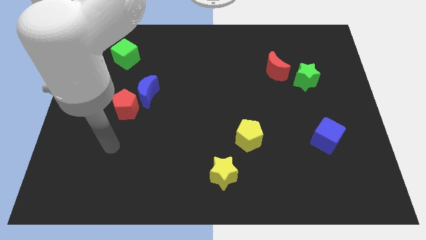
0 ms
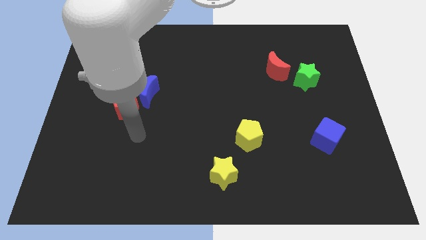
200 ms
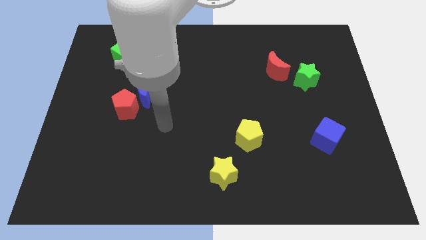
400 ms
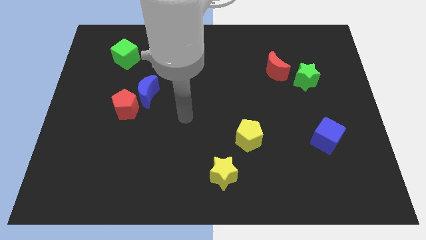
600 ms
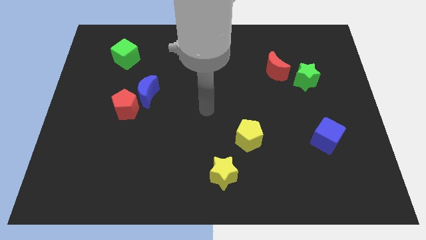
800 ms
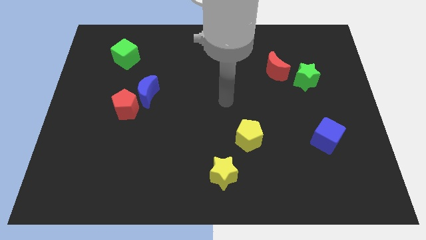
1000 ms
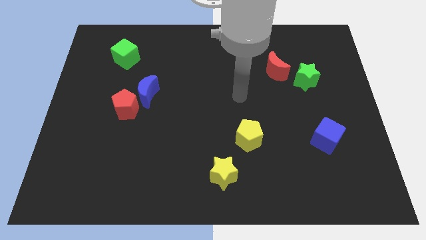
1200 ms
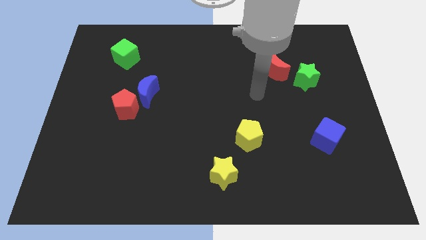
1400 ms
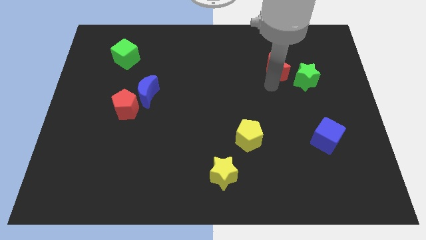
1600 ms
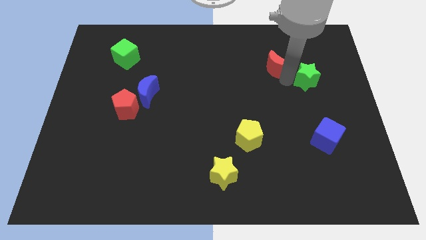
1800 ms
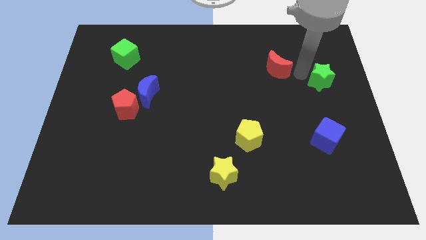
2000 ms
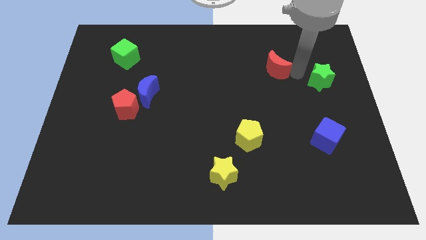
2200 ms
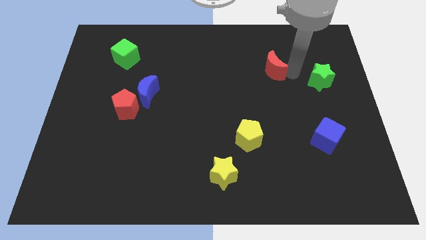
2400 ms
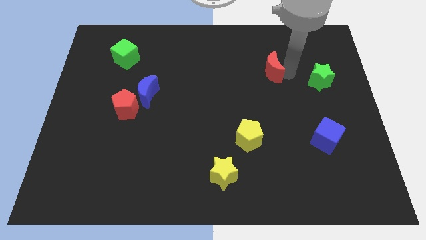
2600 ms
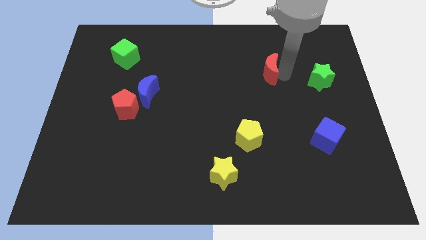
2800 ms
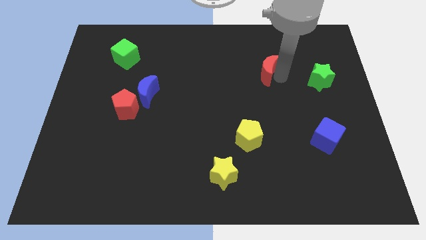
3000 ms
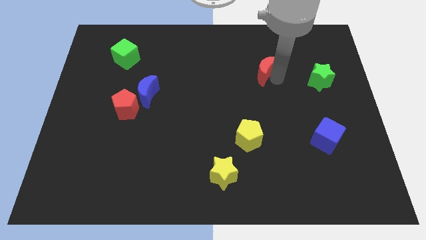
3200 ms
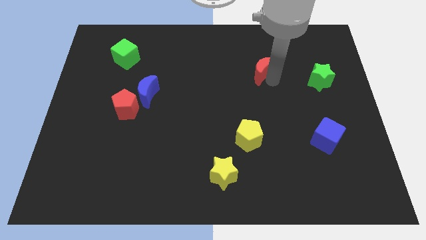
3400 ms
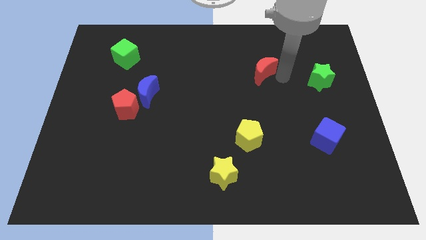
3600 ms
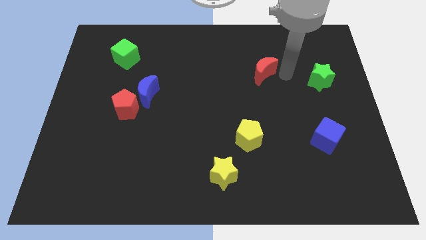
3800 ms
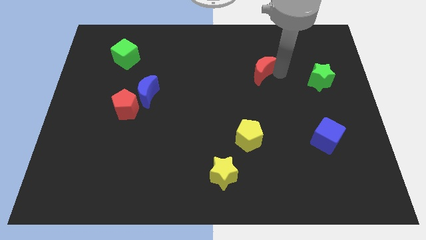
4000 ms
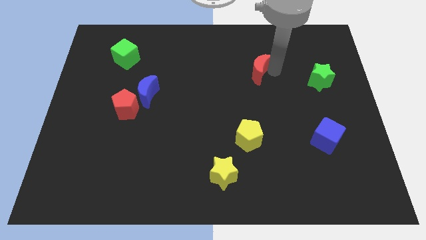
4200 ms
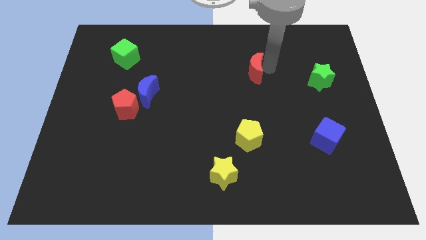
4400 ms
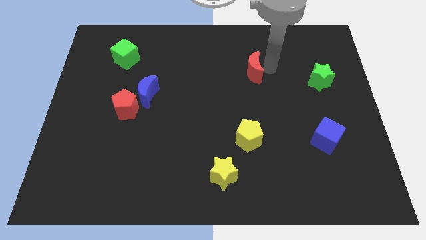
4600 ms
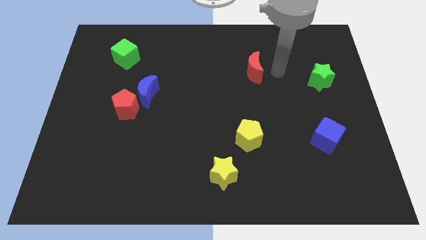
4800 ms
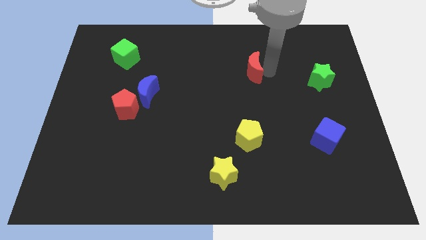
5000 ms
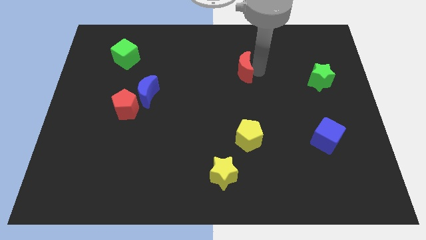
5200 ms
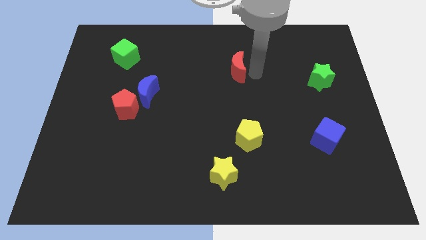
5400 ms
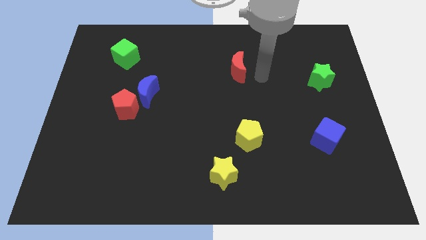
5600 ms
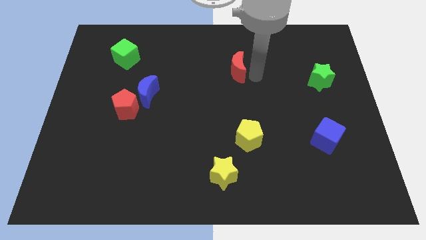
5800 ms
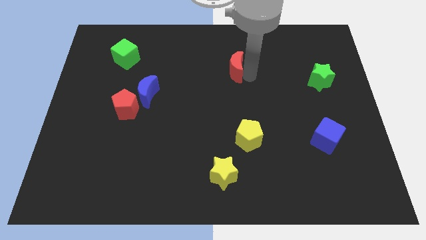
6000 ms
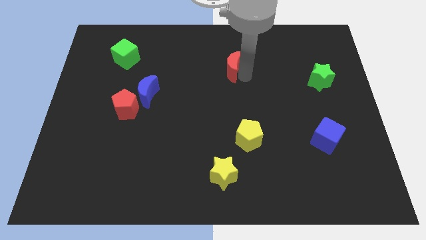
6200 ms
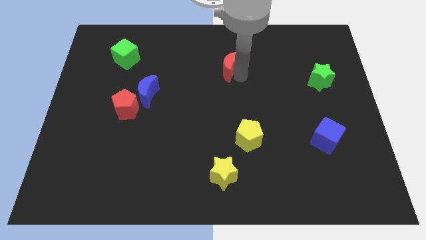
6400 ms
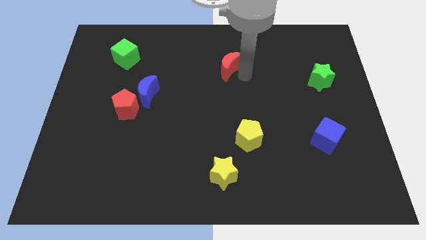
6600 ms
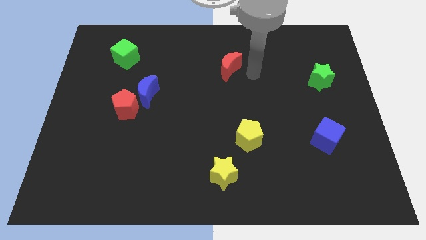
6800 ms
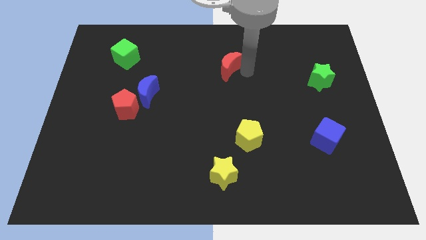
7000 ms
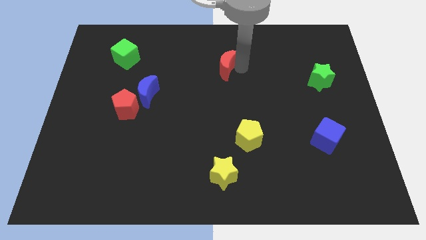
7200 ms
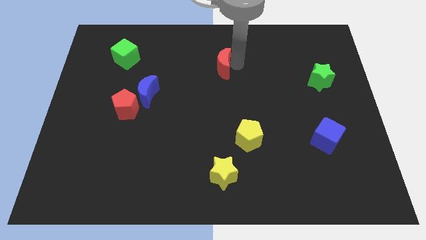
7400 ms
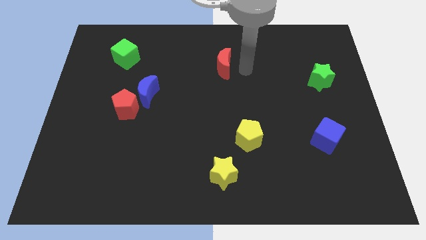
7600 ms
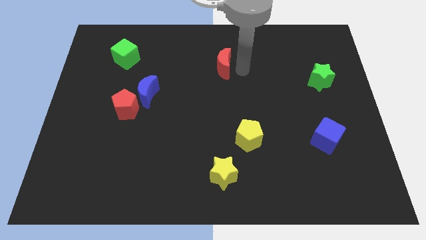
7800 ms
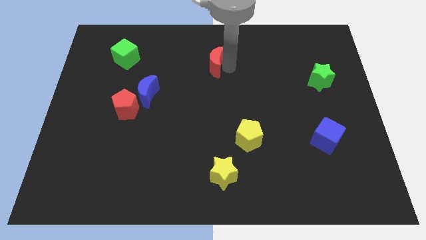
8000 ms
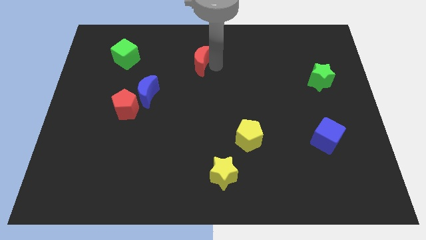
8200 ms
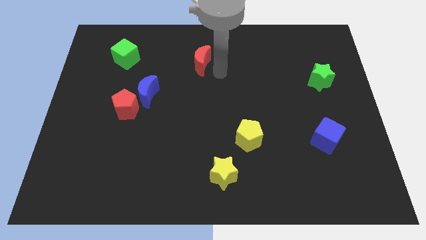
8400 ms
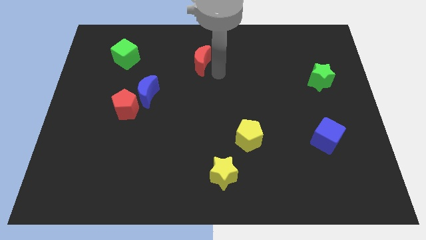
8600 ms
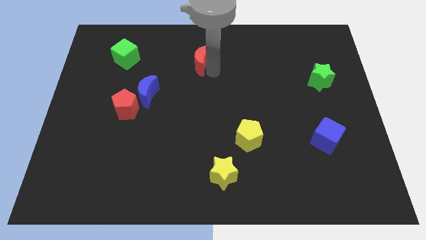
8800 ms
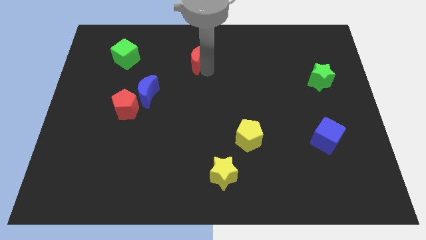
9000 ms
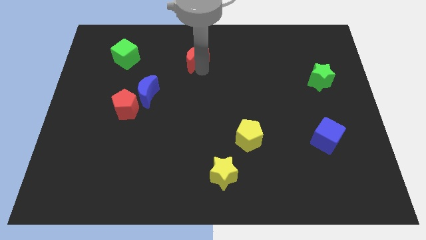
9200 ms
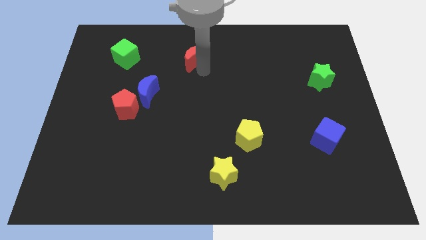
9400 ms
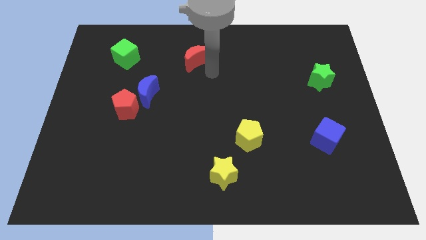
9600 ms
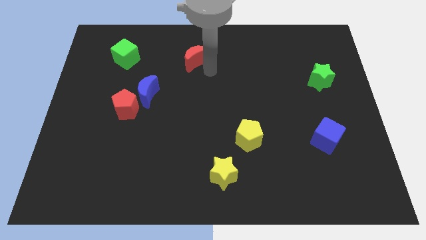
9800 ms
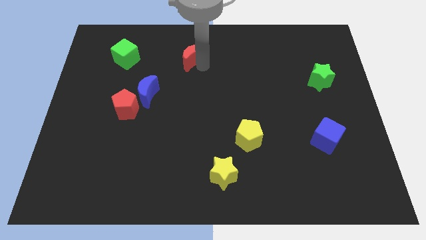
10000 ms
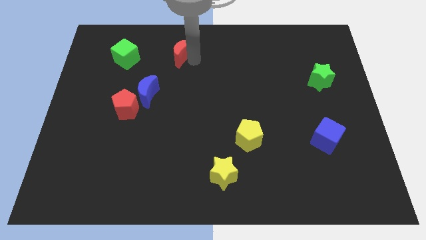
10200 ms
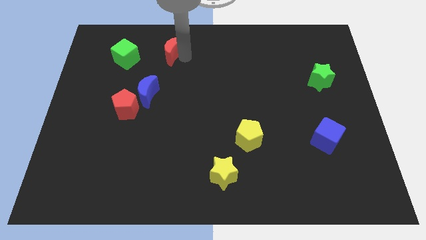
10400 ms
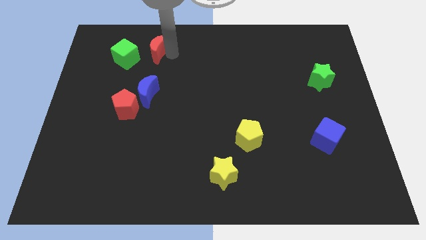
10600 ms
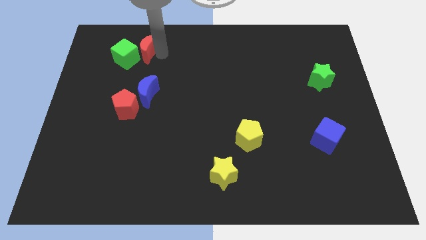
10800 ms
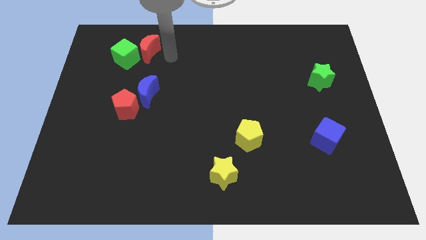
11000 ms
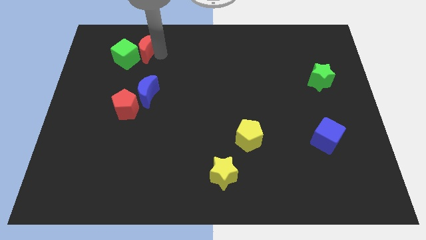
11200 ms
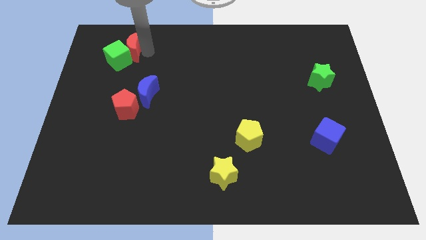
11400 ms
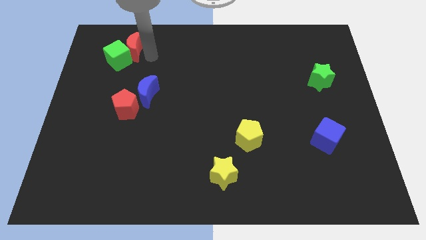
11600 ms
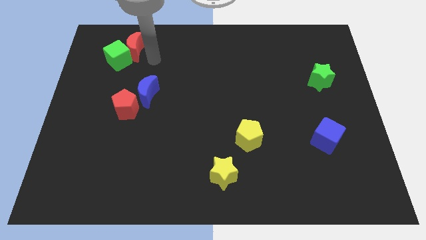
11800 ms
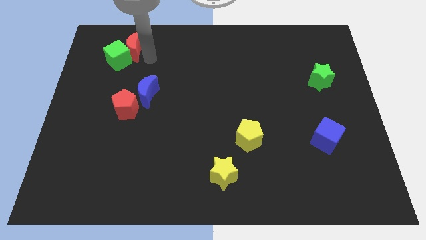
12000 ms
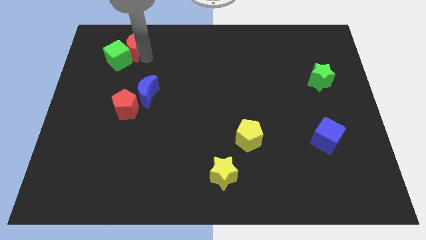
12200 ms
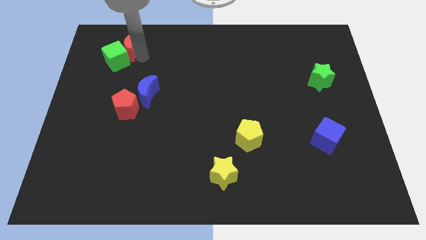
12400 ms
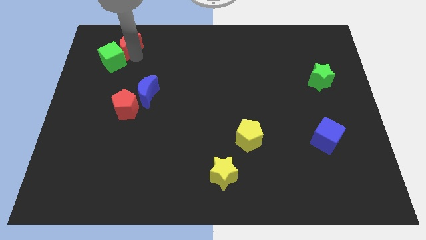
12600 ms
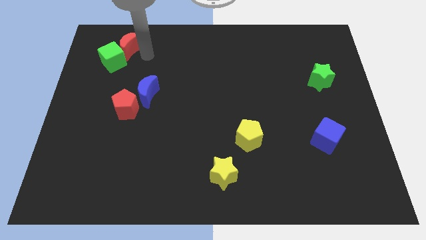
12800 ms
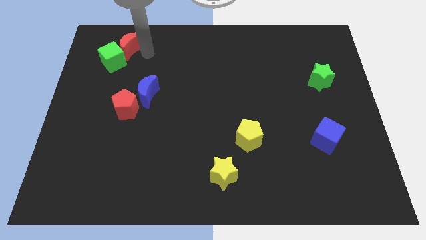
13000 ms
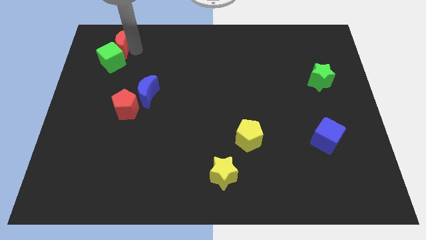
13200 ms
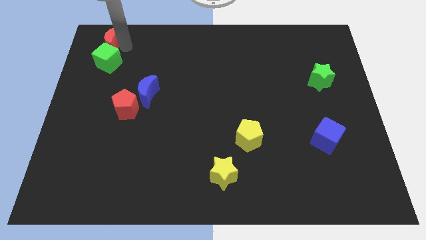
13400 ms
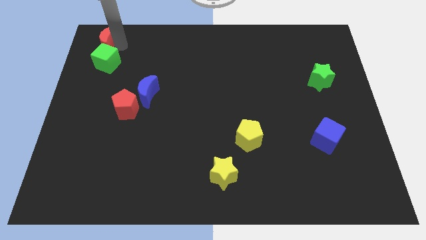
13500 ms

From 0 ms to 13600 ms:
push the red moon to the top left corner
